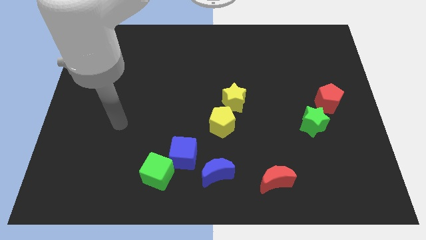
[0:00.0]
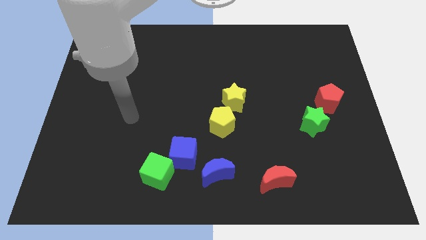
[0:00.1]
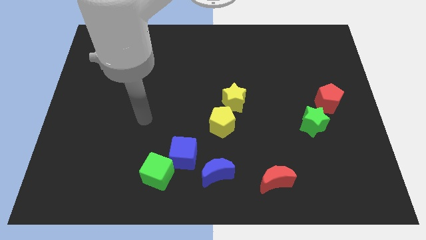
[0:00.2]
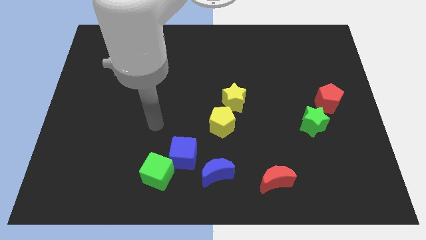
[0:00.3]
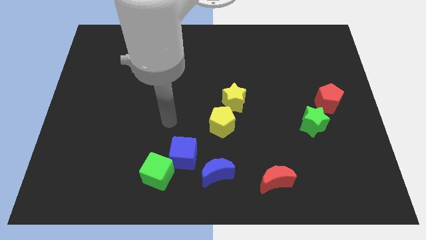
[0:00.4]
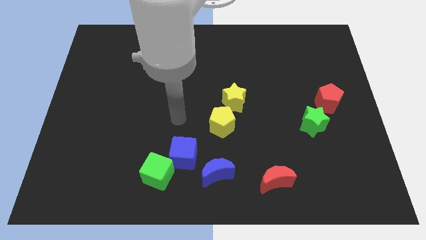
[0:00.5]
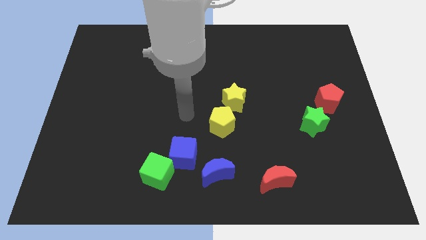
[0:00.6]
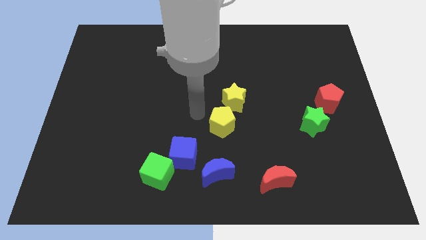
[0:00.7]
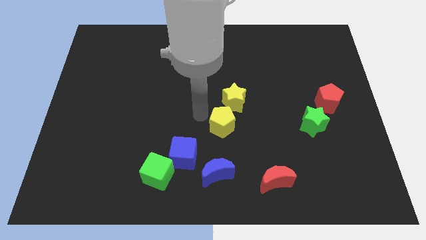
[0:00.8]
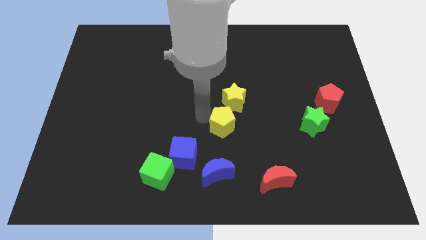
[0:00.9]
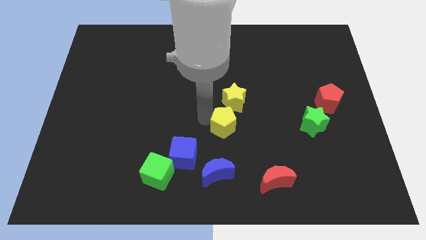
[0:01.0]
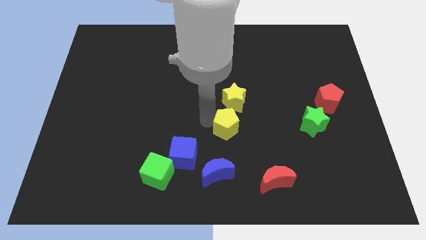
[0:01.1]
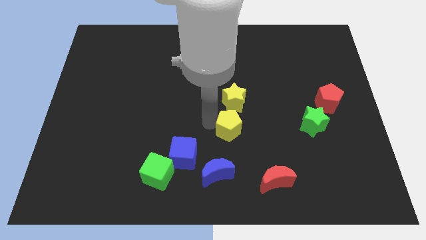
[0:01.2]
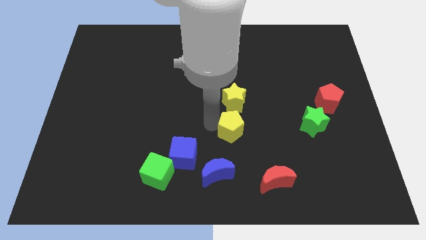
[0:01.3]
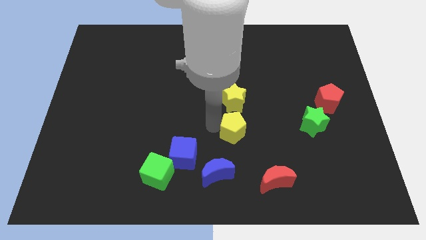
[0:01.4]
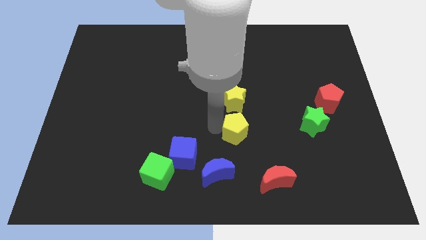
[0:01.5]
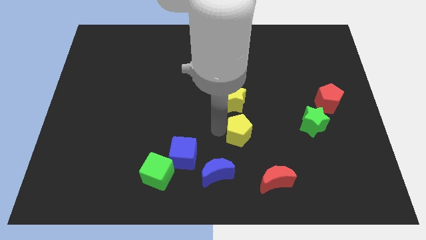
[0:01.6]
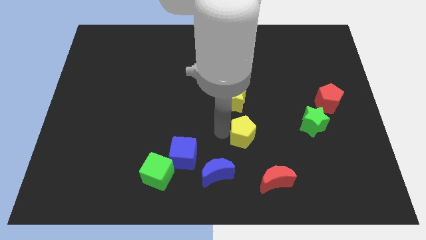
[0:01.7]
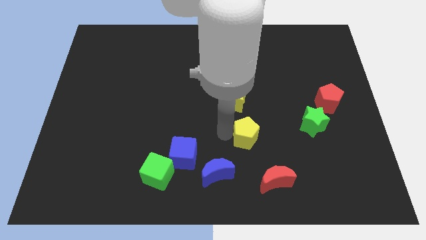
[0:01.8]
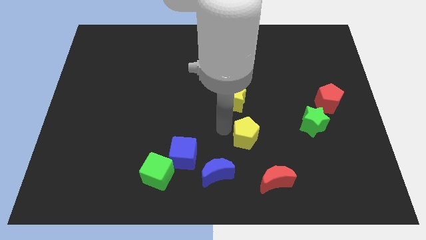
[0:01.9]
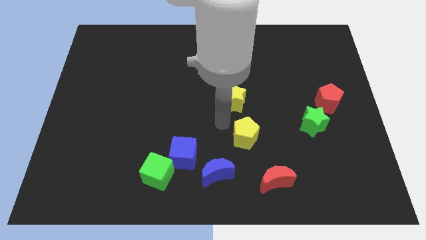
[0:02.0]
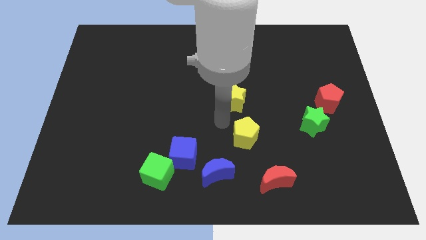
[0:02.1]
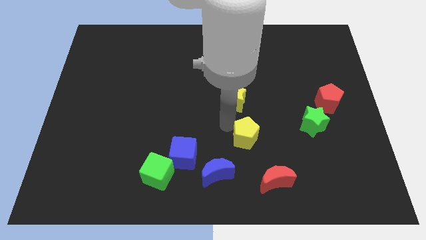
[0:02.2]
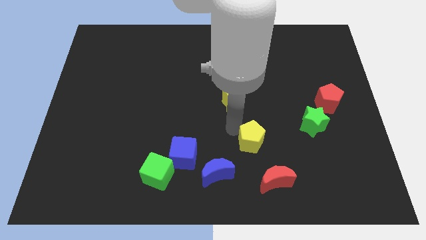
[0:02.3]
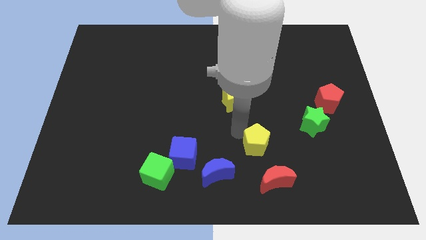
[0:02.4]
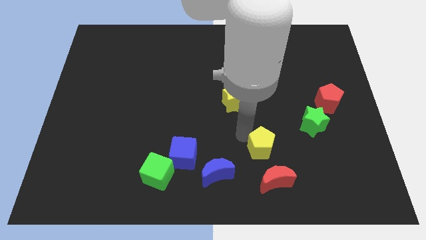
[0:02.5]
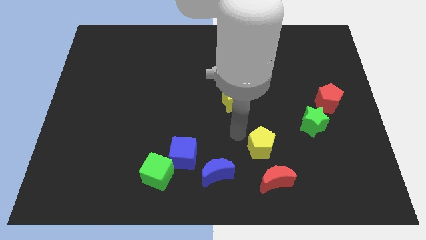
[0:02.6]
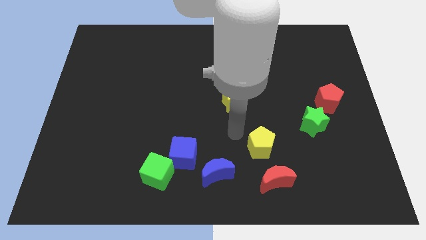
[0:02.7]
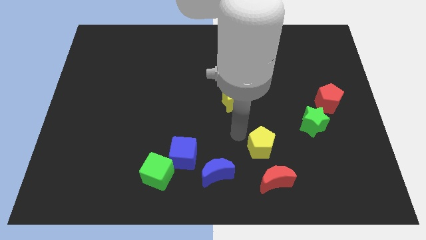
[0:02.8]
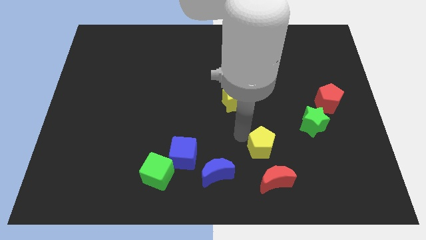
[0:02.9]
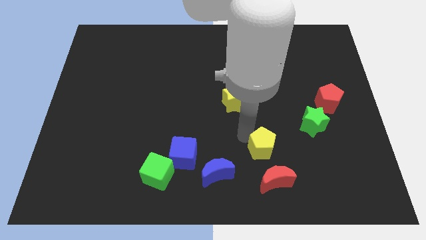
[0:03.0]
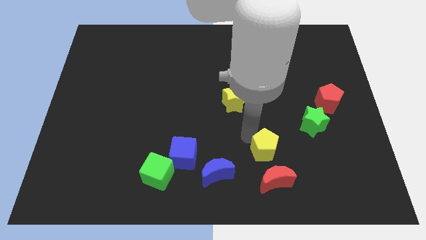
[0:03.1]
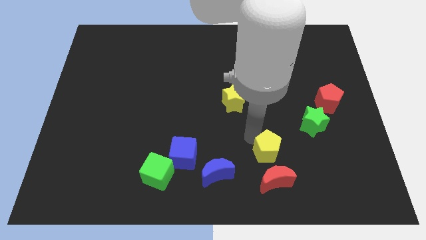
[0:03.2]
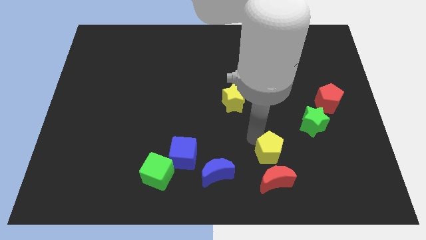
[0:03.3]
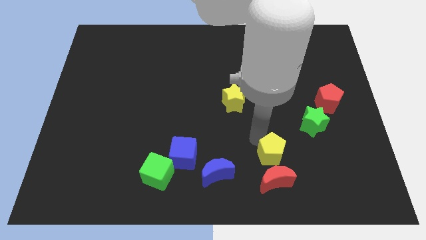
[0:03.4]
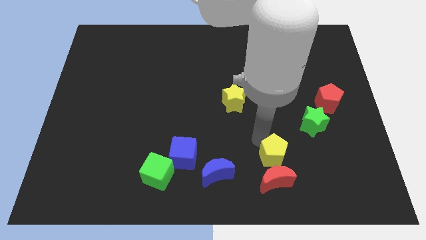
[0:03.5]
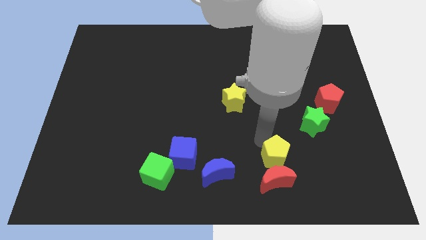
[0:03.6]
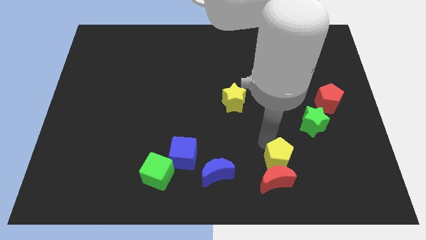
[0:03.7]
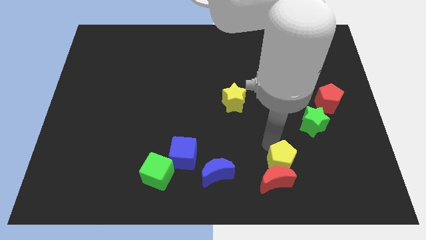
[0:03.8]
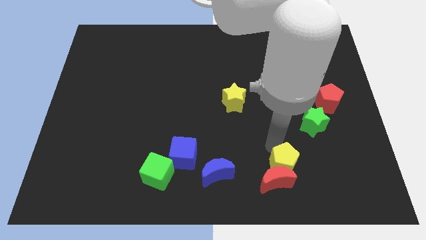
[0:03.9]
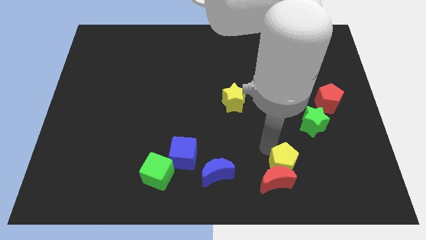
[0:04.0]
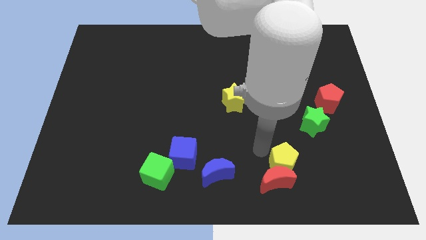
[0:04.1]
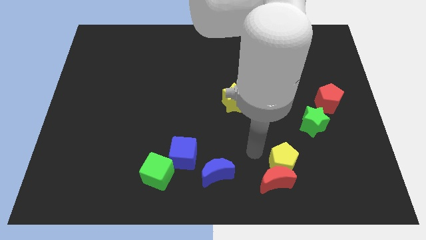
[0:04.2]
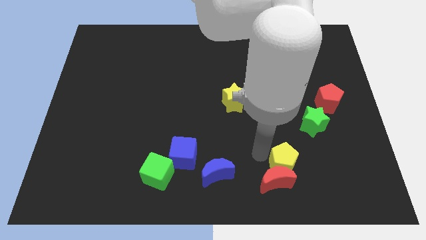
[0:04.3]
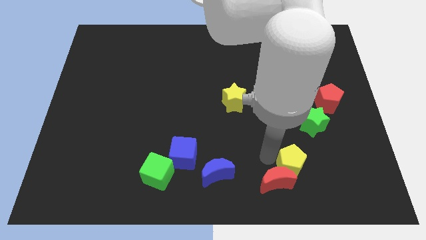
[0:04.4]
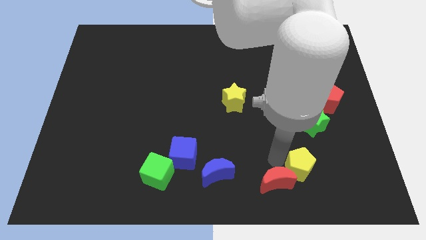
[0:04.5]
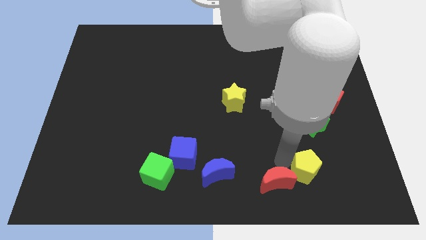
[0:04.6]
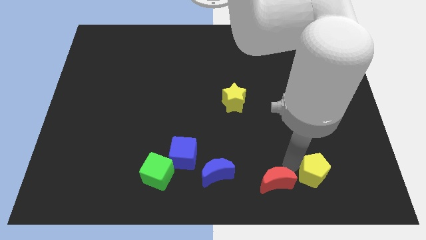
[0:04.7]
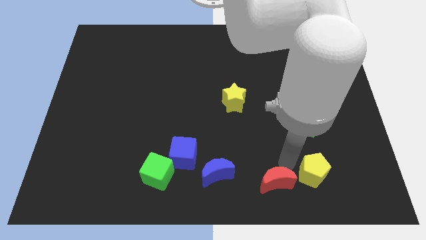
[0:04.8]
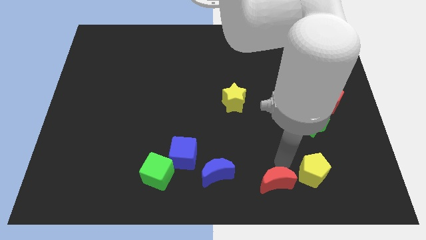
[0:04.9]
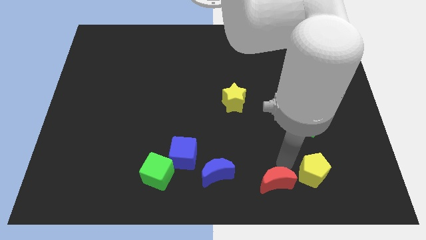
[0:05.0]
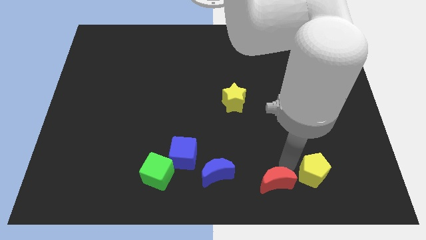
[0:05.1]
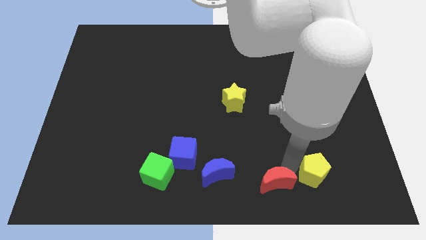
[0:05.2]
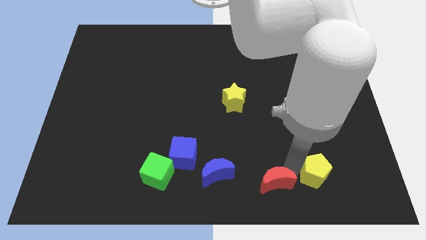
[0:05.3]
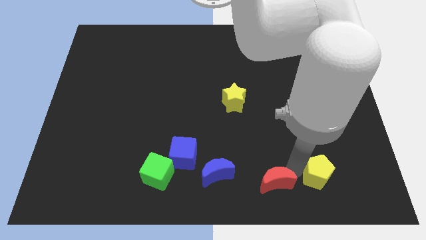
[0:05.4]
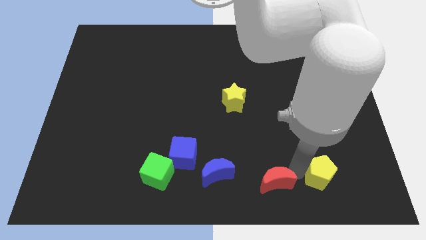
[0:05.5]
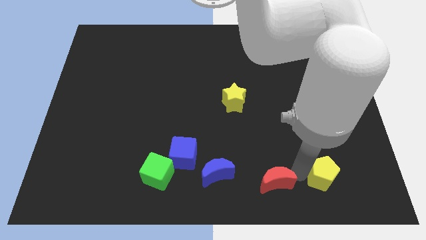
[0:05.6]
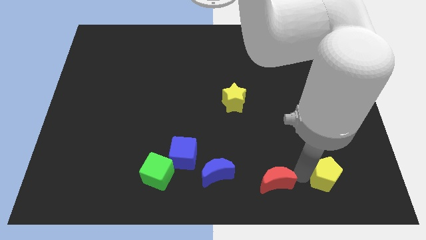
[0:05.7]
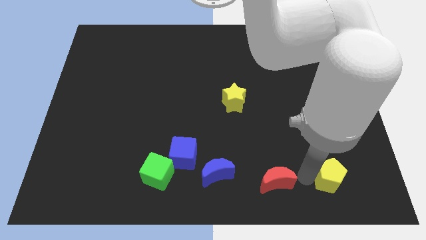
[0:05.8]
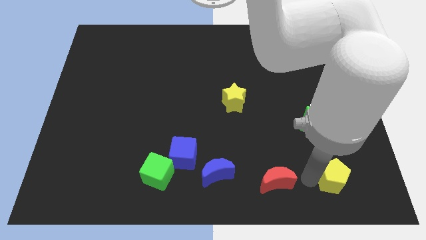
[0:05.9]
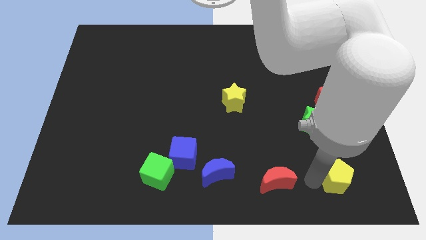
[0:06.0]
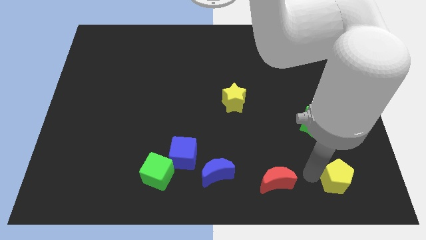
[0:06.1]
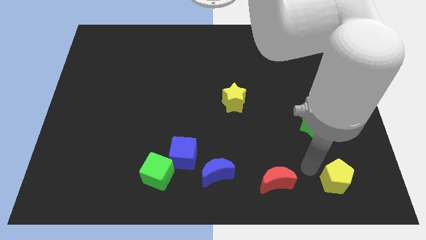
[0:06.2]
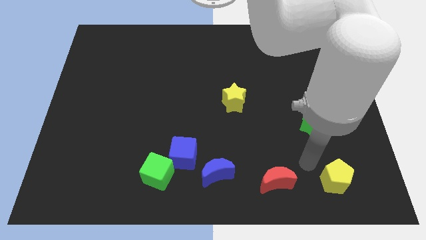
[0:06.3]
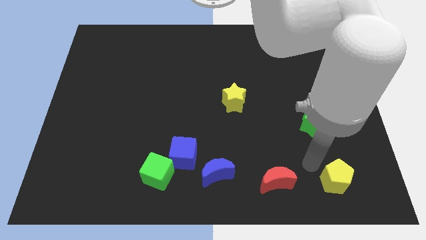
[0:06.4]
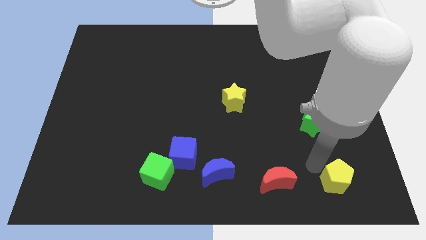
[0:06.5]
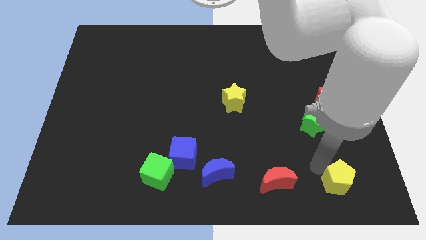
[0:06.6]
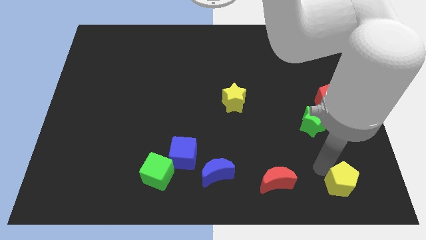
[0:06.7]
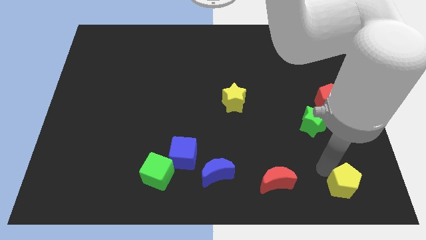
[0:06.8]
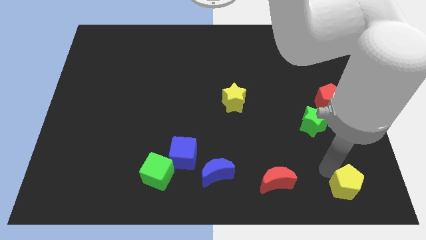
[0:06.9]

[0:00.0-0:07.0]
put the yellow pentagon to the bottom right corner
